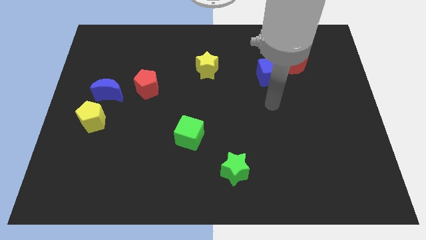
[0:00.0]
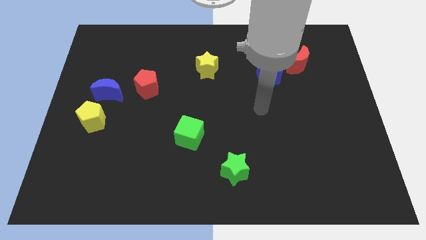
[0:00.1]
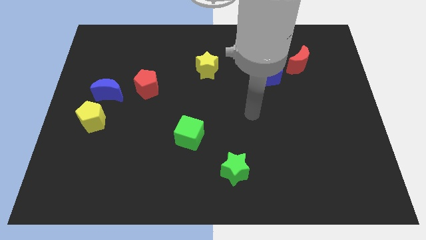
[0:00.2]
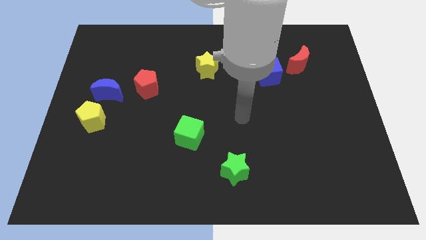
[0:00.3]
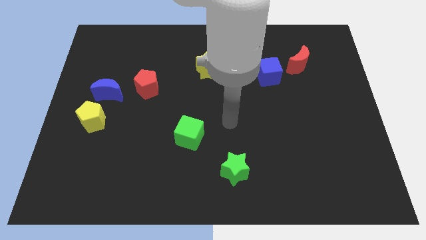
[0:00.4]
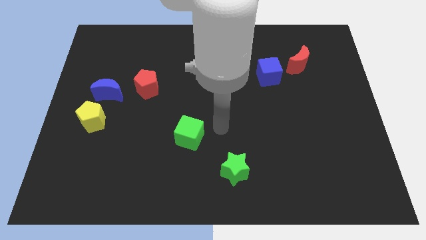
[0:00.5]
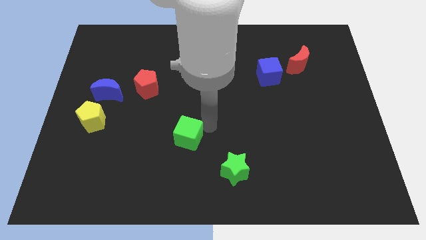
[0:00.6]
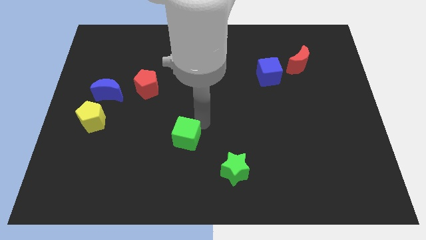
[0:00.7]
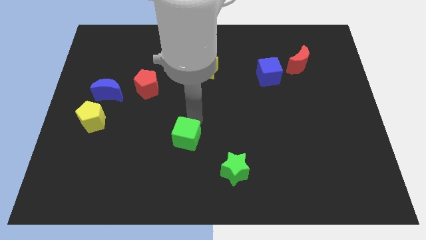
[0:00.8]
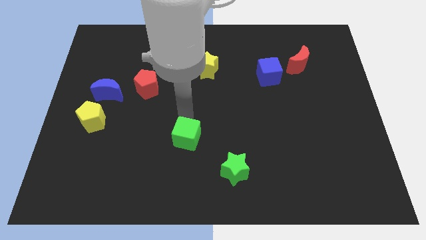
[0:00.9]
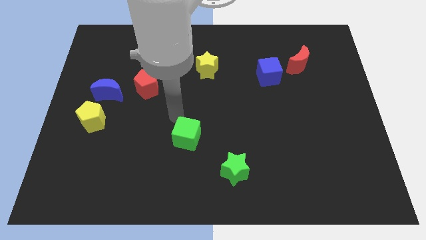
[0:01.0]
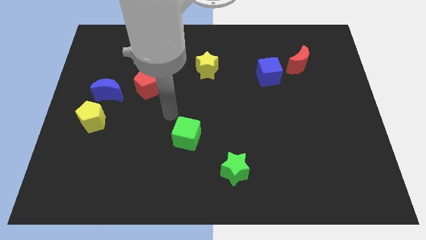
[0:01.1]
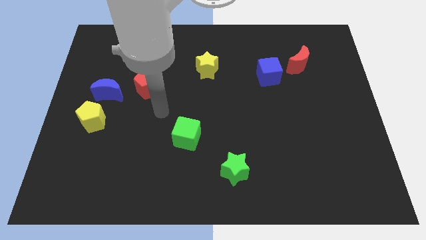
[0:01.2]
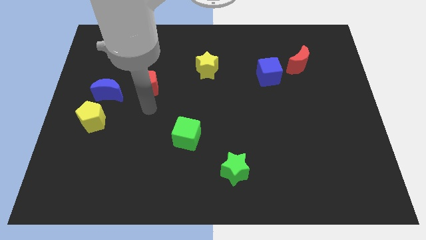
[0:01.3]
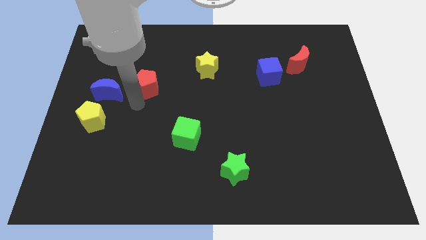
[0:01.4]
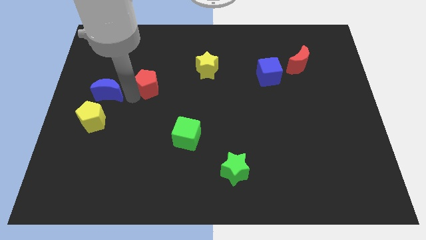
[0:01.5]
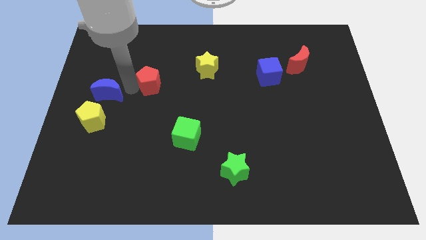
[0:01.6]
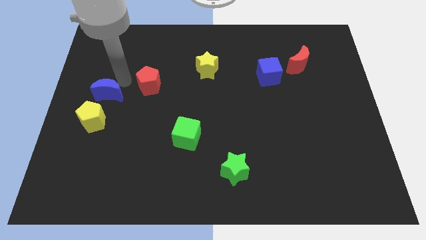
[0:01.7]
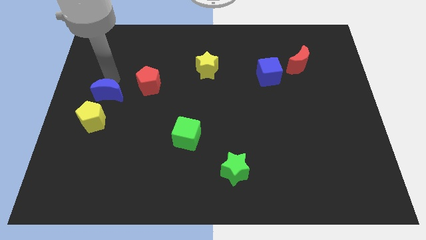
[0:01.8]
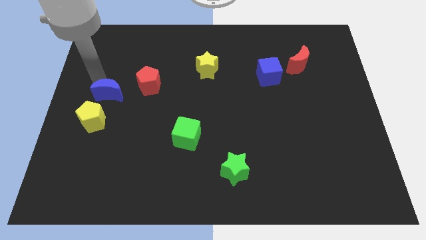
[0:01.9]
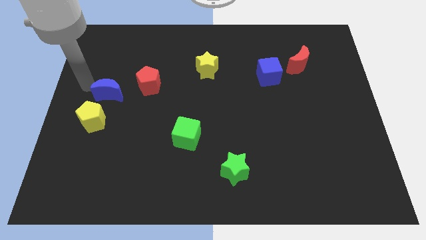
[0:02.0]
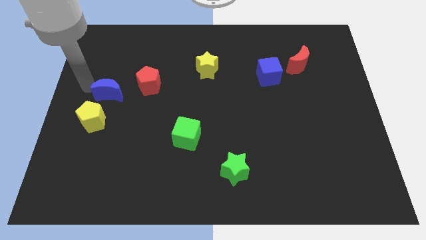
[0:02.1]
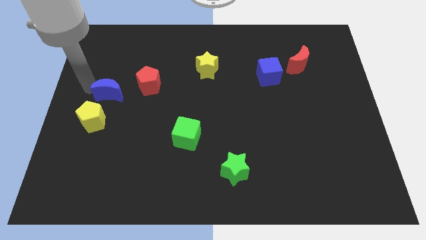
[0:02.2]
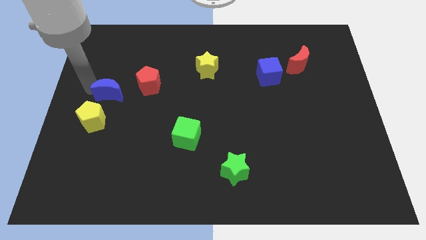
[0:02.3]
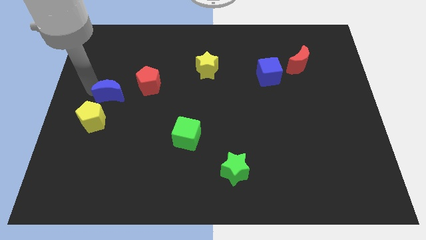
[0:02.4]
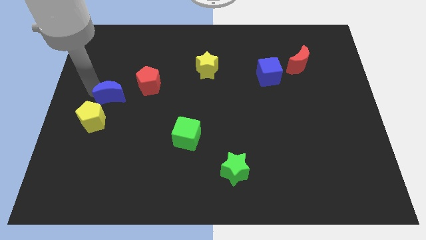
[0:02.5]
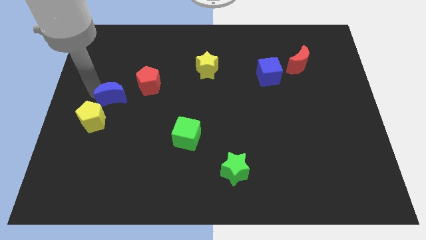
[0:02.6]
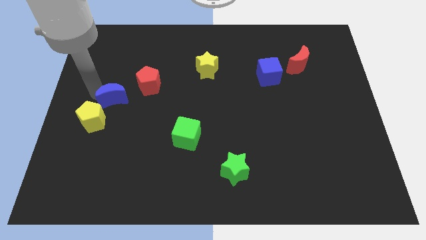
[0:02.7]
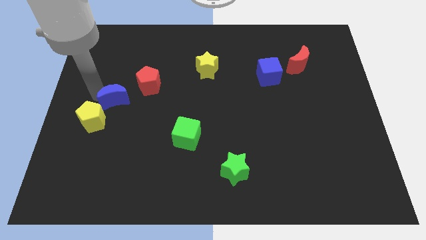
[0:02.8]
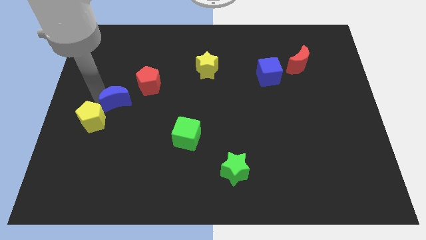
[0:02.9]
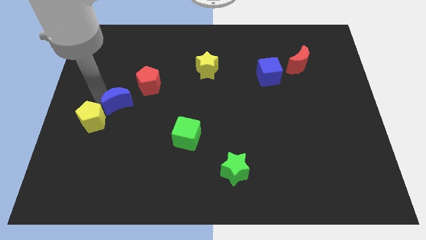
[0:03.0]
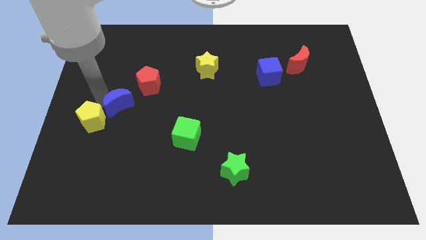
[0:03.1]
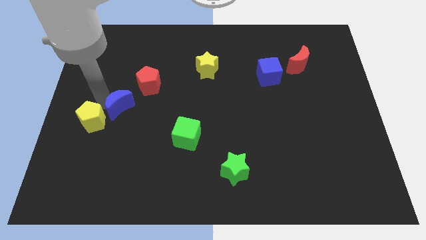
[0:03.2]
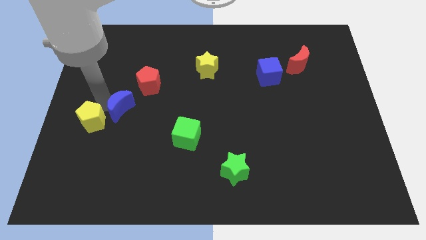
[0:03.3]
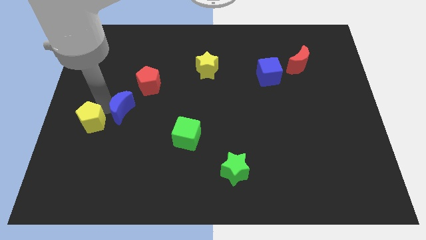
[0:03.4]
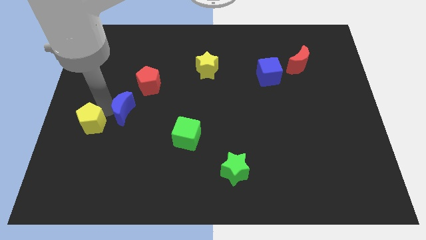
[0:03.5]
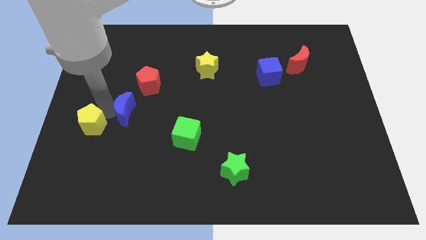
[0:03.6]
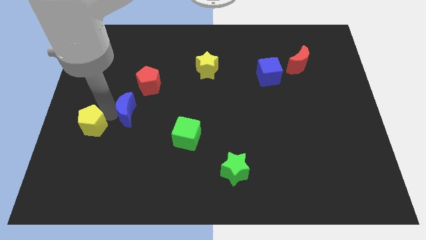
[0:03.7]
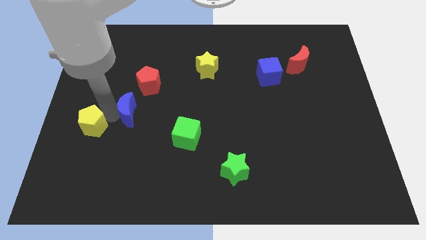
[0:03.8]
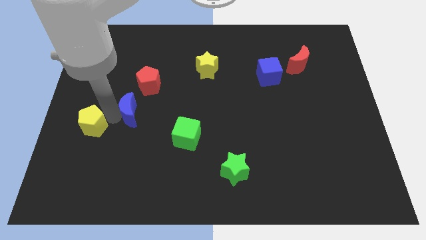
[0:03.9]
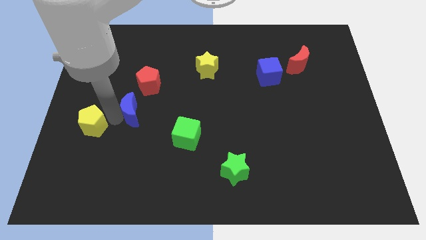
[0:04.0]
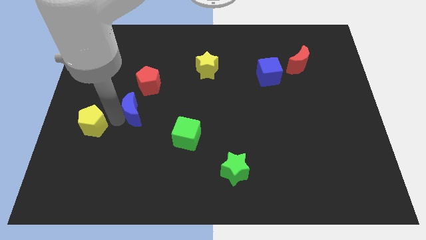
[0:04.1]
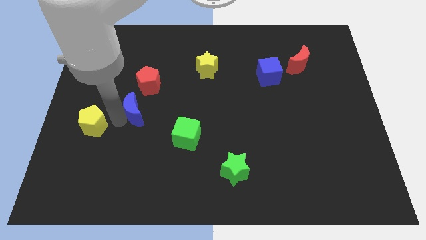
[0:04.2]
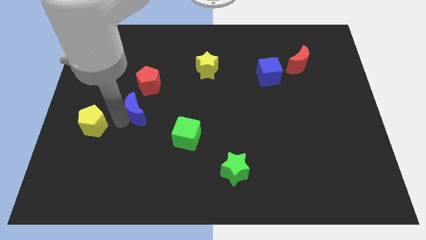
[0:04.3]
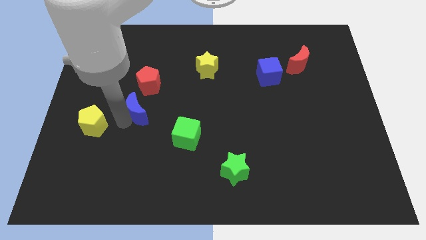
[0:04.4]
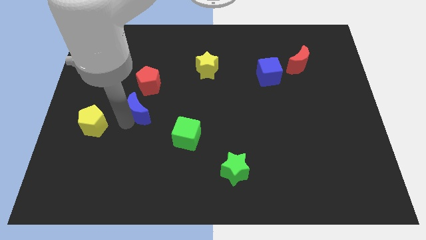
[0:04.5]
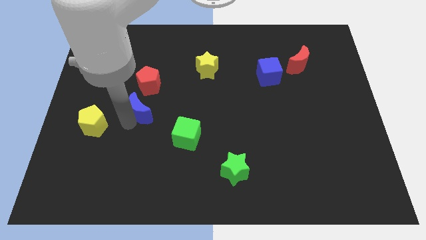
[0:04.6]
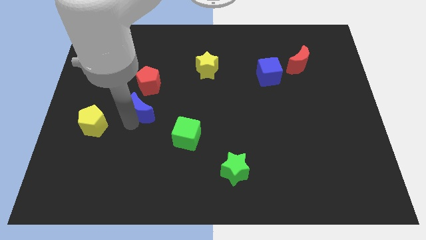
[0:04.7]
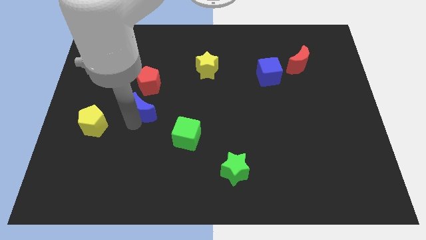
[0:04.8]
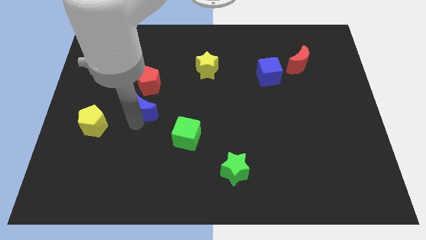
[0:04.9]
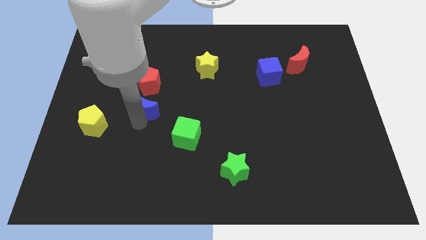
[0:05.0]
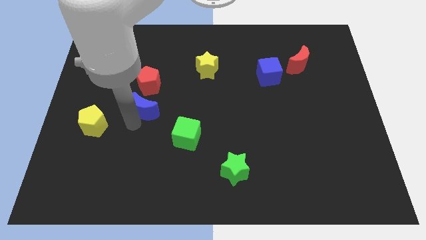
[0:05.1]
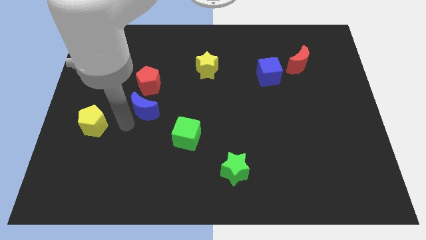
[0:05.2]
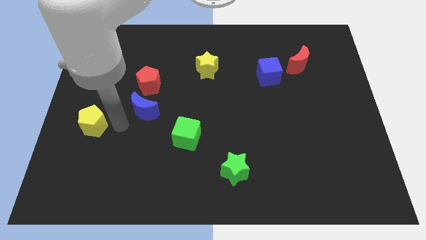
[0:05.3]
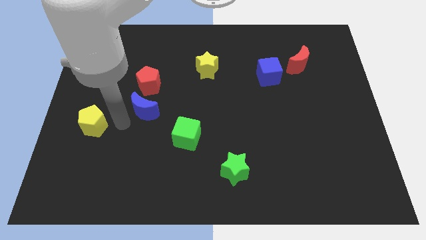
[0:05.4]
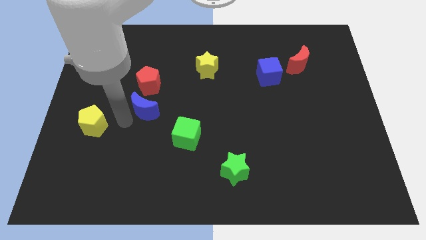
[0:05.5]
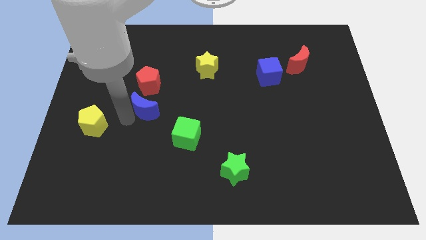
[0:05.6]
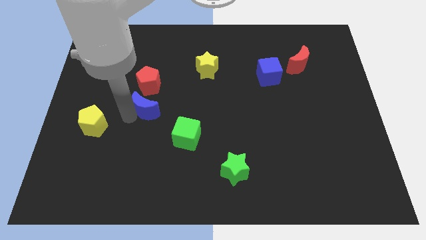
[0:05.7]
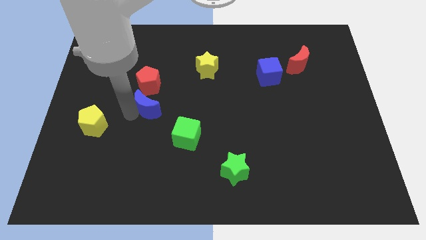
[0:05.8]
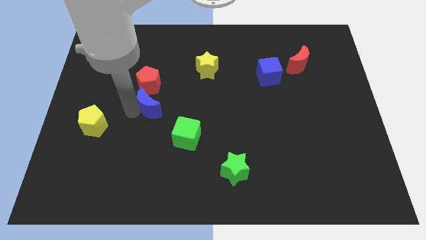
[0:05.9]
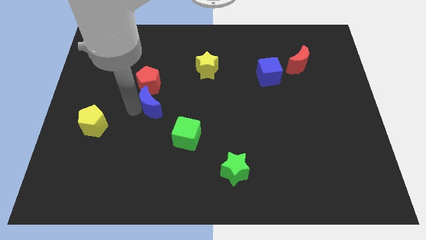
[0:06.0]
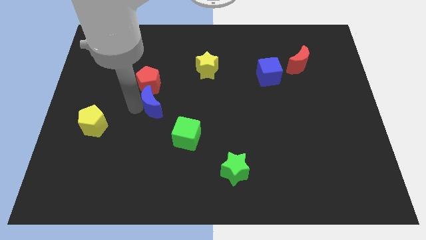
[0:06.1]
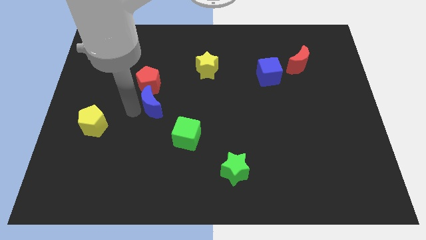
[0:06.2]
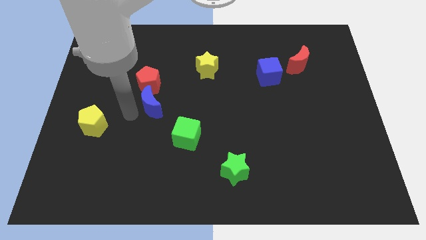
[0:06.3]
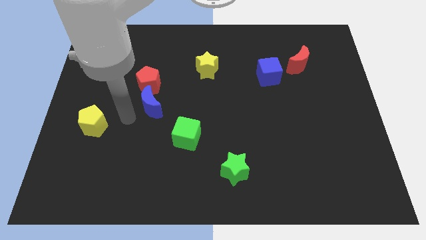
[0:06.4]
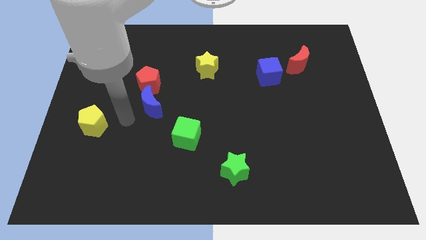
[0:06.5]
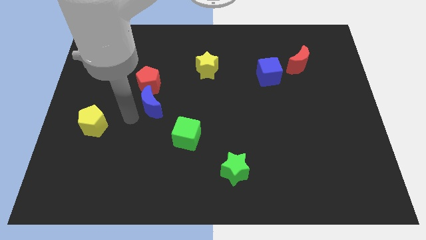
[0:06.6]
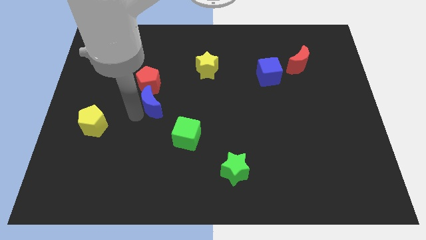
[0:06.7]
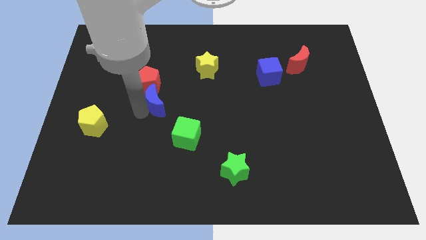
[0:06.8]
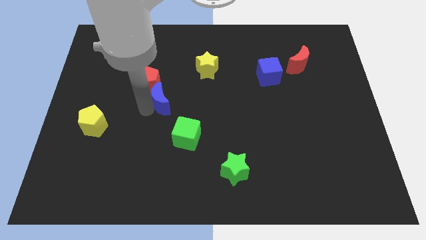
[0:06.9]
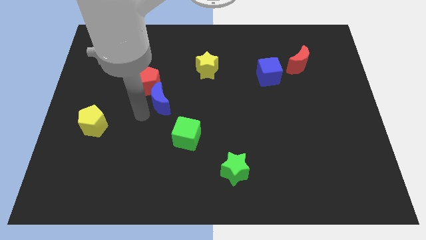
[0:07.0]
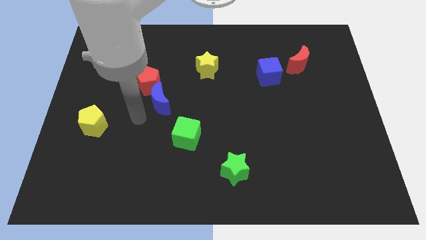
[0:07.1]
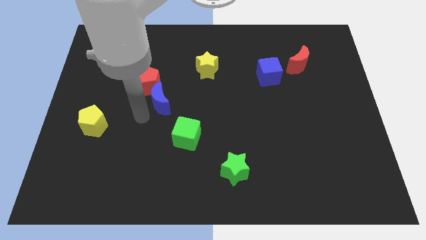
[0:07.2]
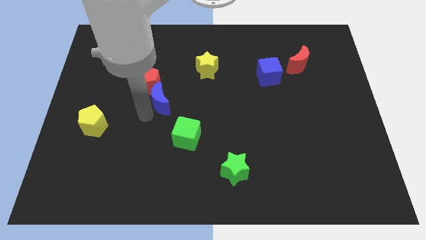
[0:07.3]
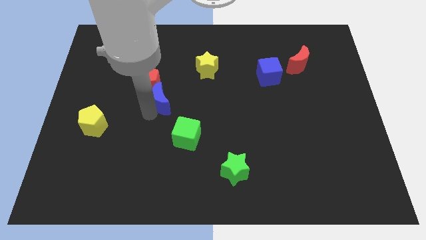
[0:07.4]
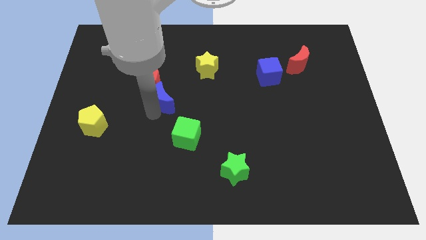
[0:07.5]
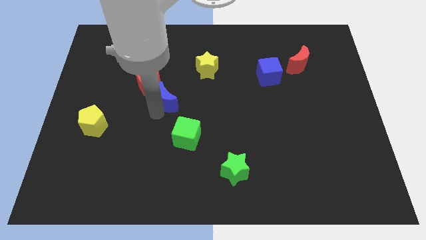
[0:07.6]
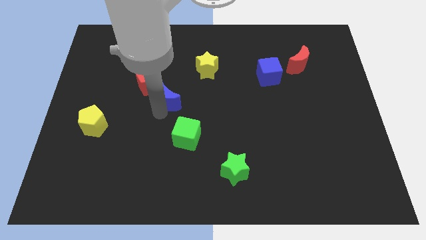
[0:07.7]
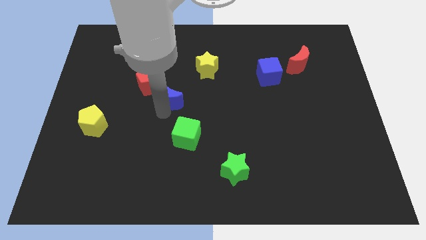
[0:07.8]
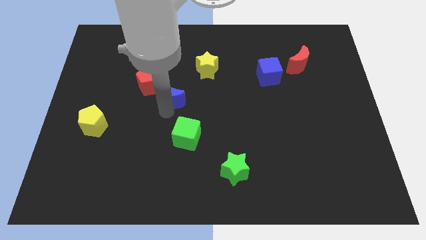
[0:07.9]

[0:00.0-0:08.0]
put the blue moon to the bottom left side of the yellow star
